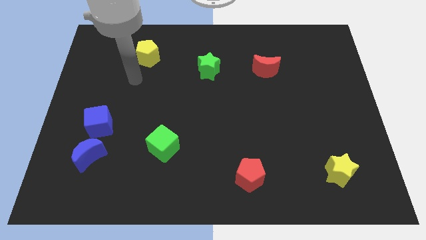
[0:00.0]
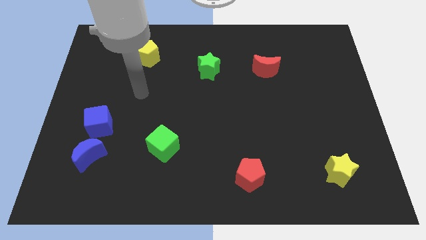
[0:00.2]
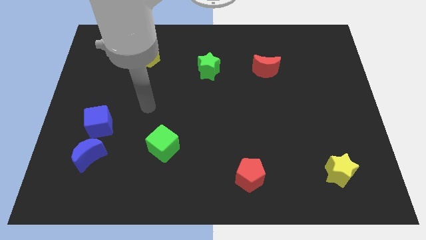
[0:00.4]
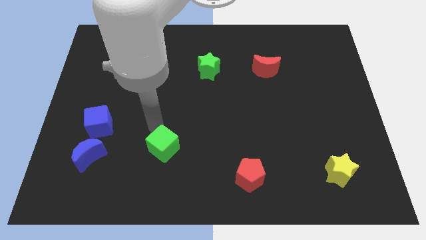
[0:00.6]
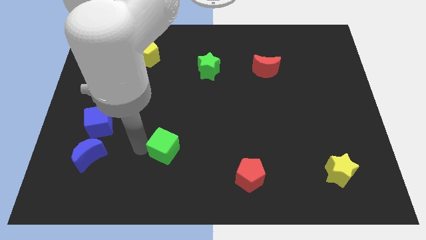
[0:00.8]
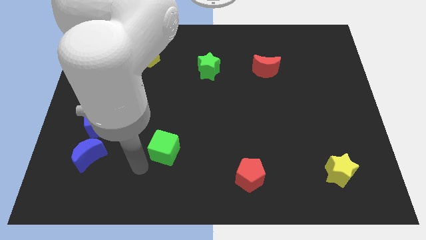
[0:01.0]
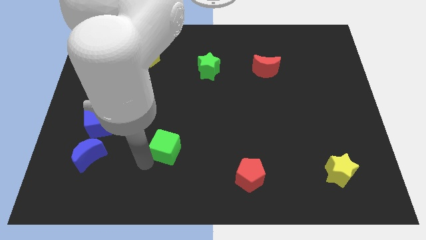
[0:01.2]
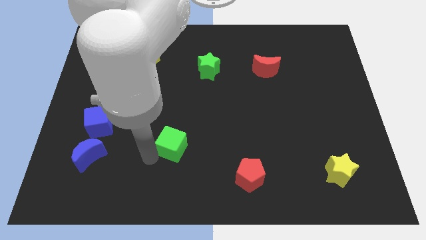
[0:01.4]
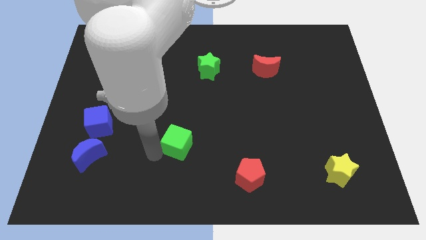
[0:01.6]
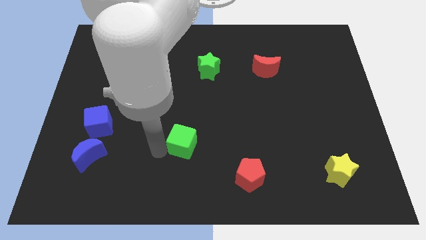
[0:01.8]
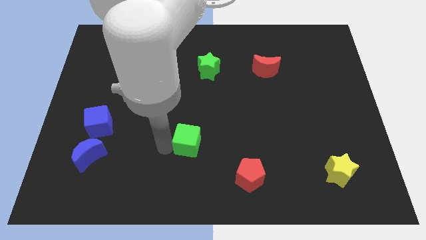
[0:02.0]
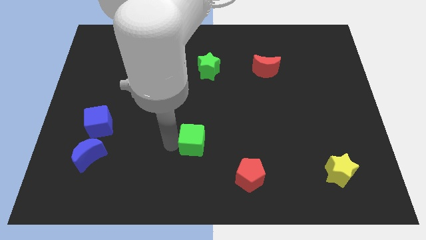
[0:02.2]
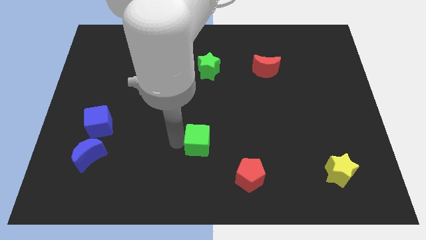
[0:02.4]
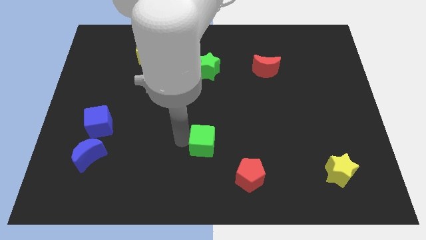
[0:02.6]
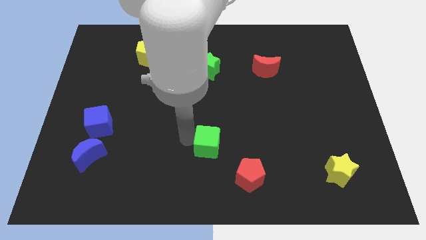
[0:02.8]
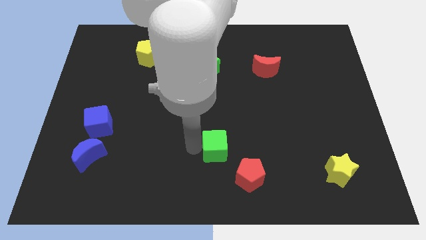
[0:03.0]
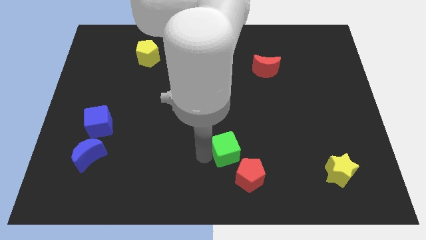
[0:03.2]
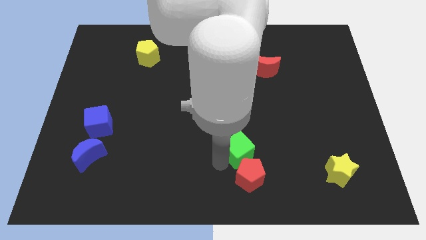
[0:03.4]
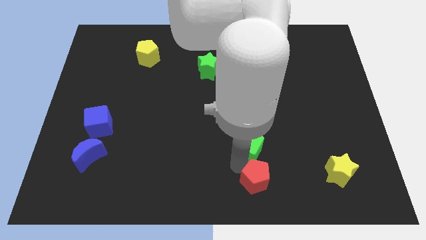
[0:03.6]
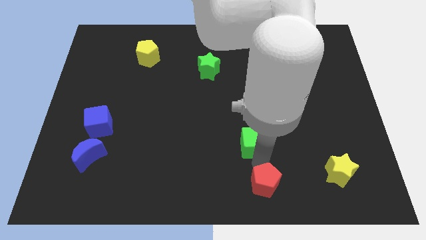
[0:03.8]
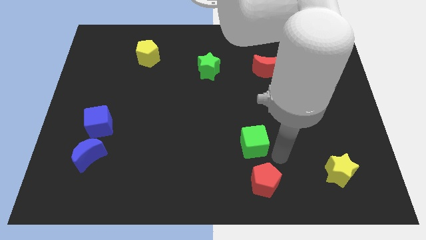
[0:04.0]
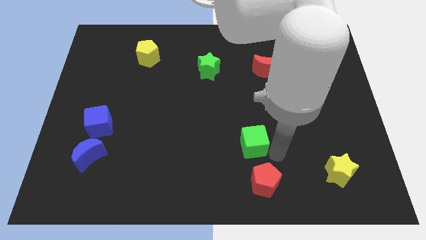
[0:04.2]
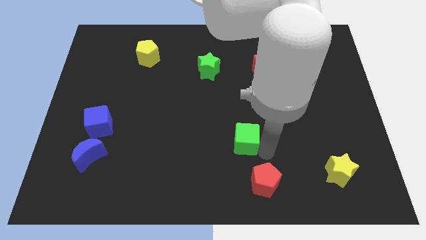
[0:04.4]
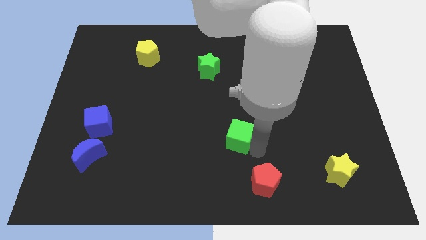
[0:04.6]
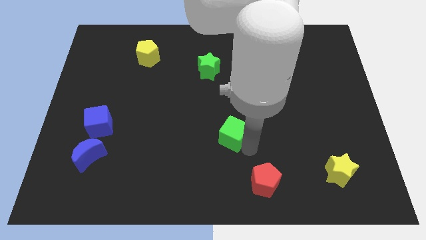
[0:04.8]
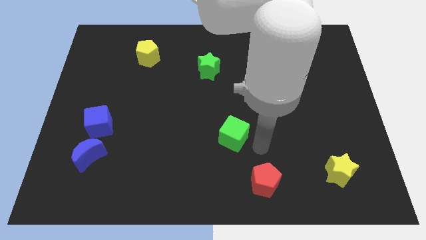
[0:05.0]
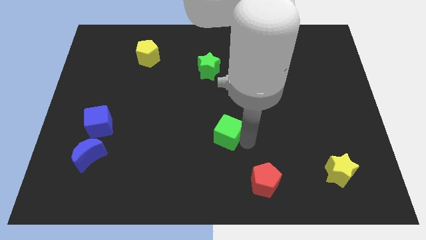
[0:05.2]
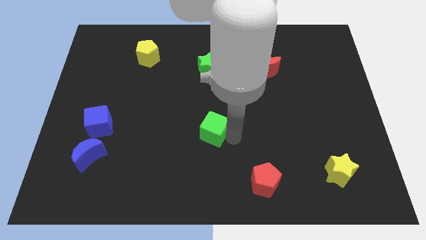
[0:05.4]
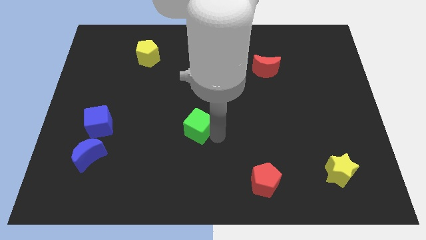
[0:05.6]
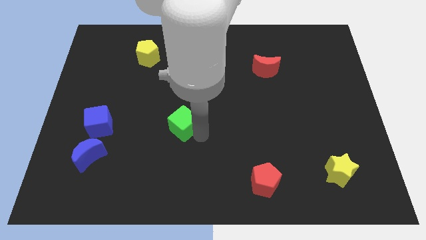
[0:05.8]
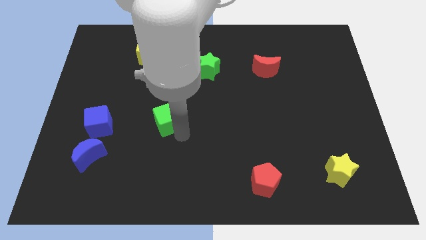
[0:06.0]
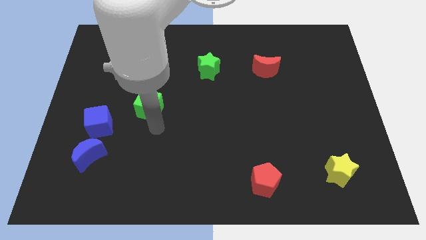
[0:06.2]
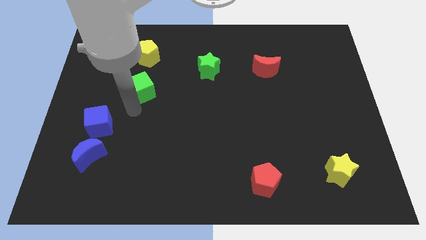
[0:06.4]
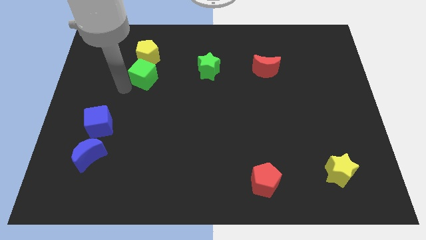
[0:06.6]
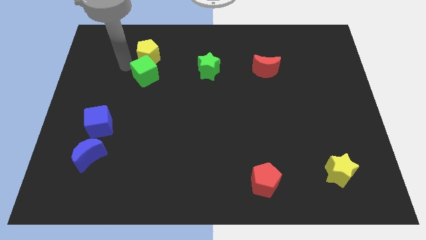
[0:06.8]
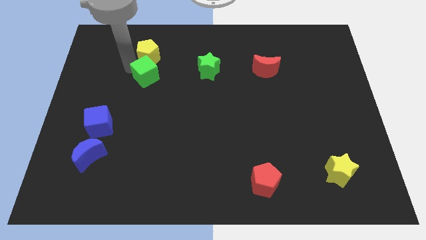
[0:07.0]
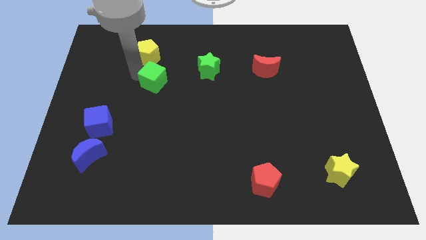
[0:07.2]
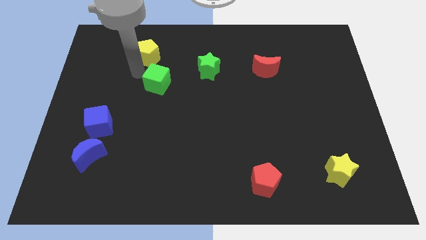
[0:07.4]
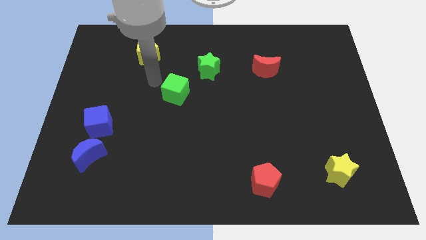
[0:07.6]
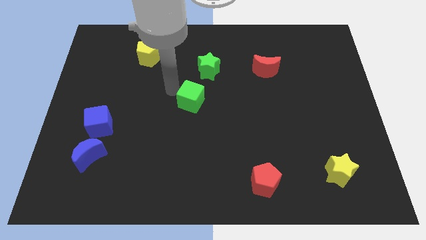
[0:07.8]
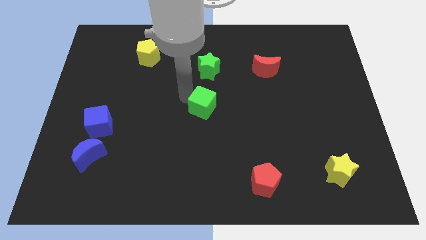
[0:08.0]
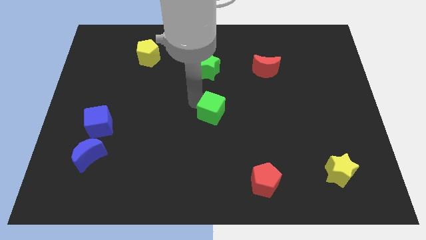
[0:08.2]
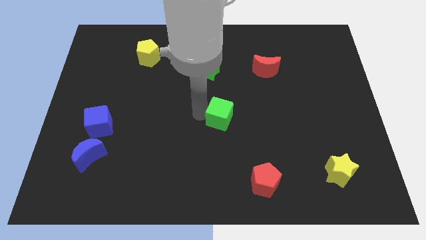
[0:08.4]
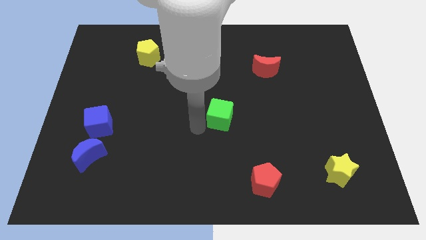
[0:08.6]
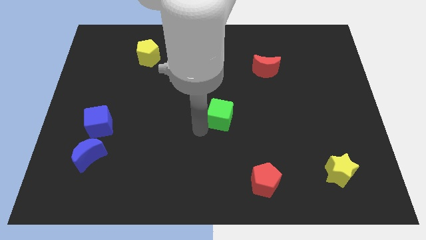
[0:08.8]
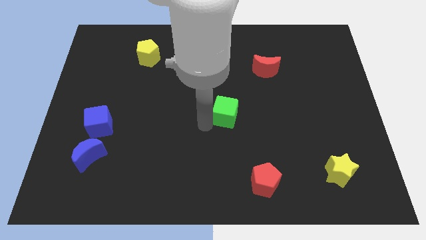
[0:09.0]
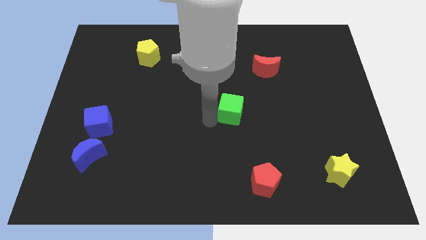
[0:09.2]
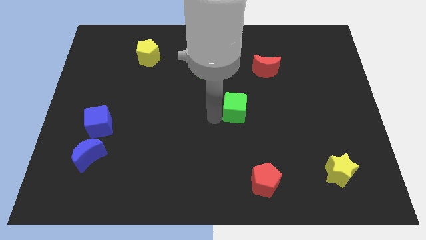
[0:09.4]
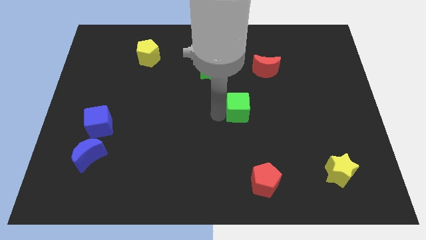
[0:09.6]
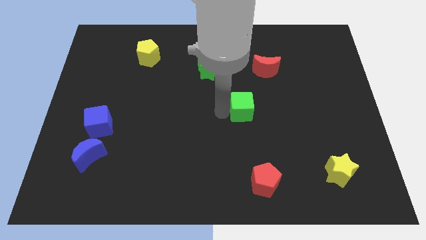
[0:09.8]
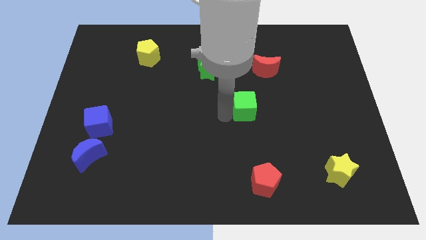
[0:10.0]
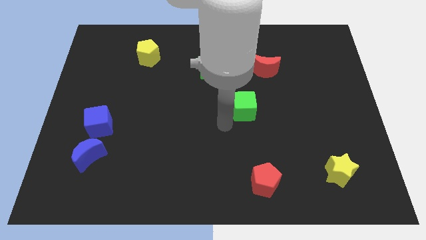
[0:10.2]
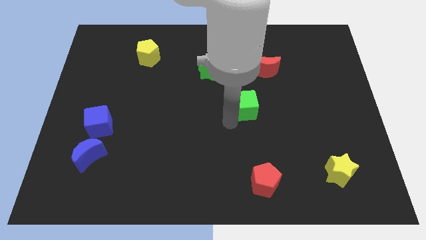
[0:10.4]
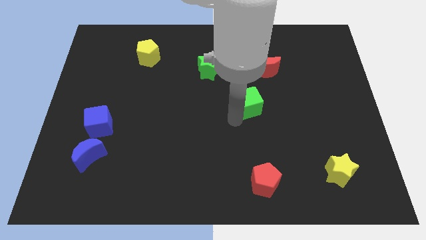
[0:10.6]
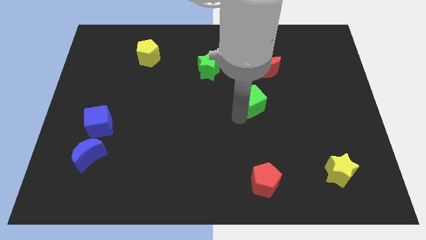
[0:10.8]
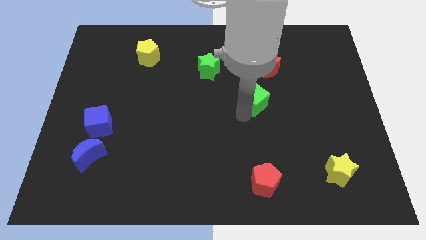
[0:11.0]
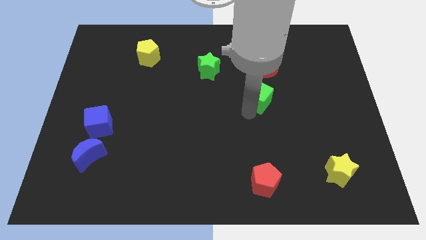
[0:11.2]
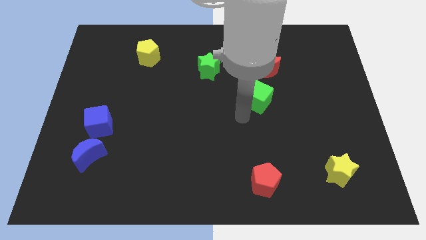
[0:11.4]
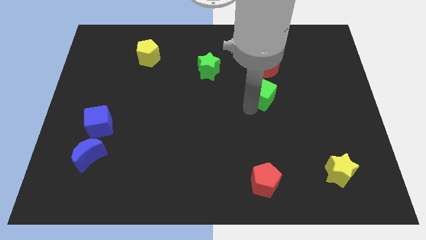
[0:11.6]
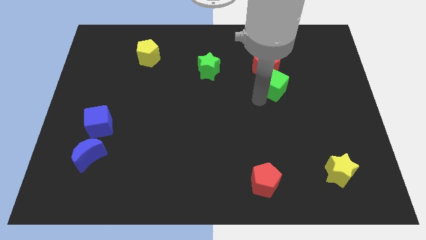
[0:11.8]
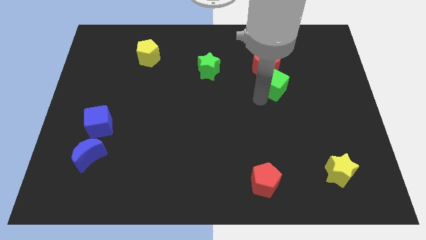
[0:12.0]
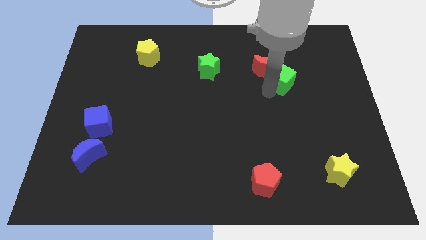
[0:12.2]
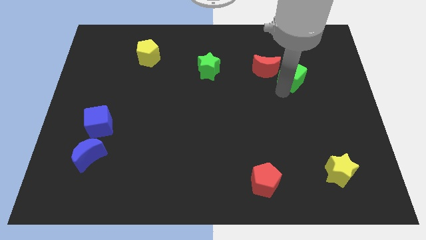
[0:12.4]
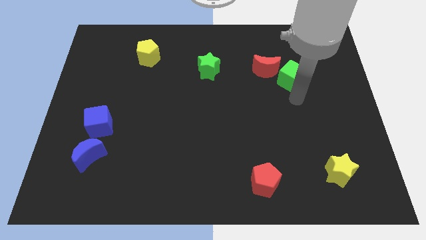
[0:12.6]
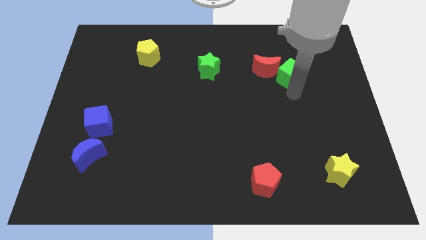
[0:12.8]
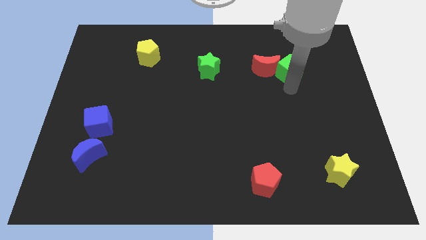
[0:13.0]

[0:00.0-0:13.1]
slide the green cube to the top right side of the red moon
